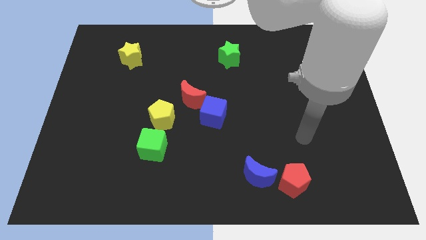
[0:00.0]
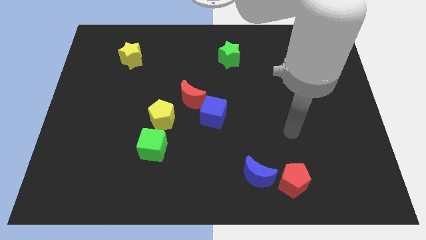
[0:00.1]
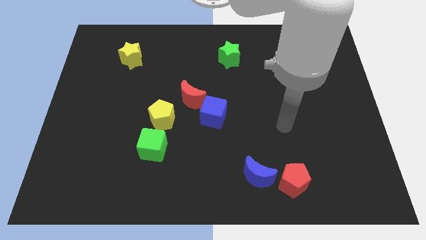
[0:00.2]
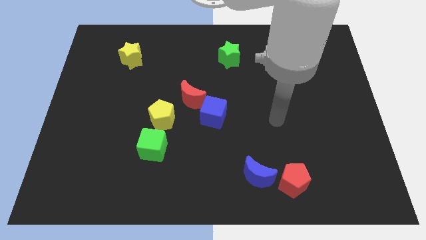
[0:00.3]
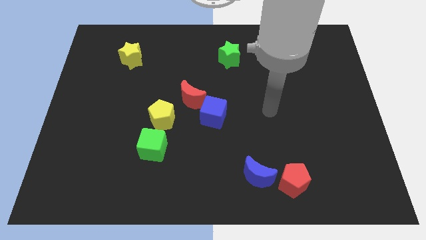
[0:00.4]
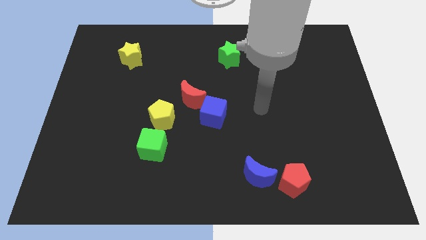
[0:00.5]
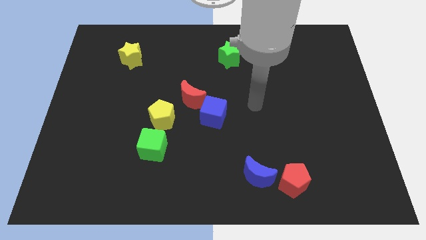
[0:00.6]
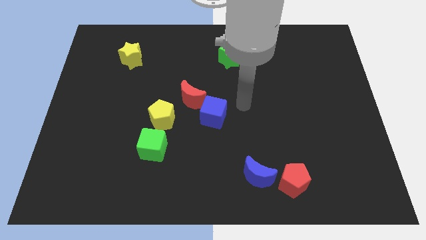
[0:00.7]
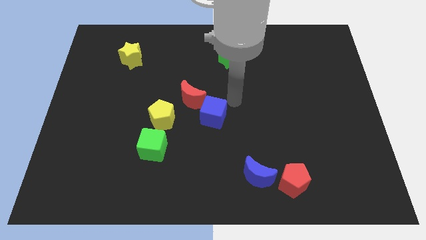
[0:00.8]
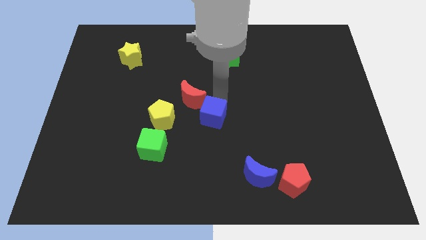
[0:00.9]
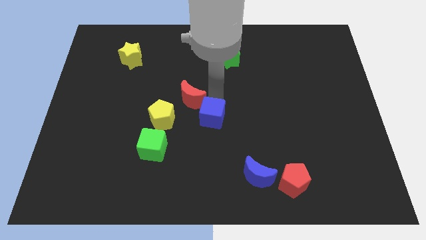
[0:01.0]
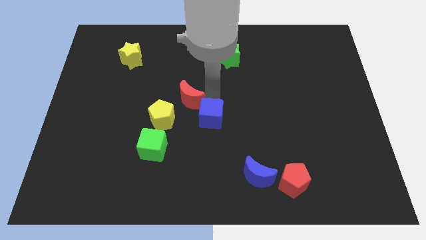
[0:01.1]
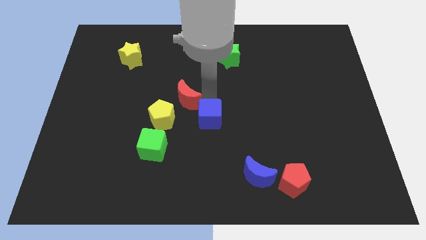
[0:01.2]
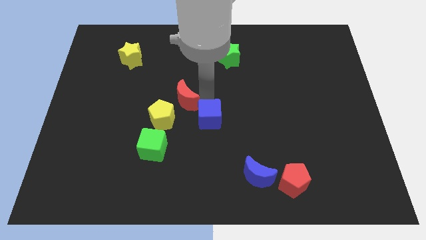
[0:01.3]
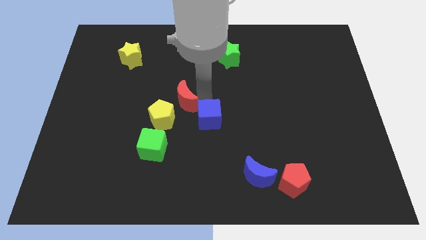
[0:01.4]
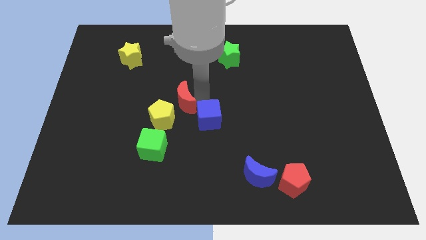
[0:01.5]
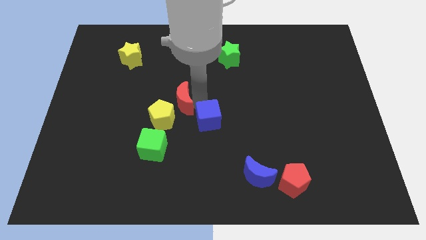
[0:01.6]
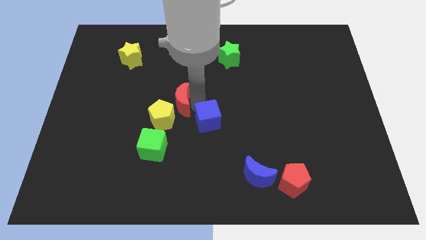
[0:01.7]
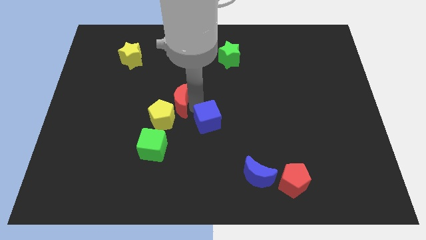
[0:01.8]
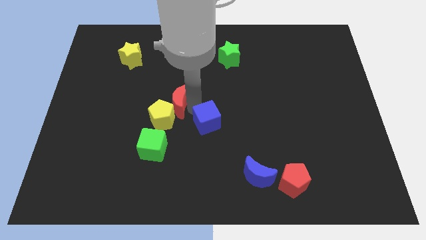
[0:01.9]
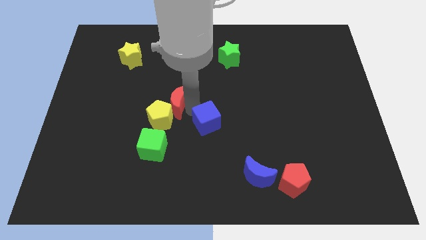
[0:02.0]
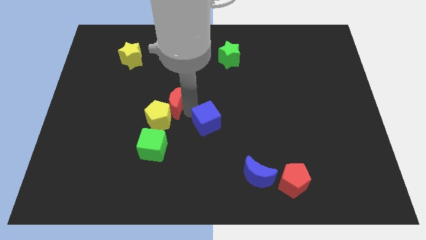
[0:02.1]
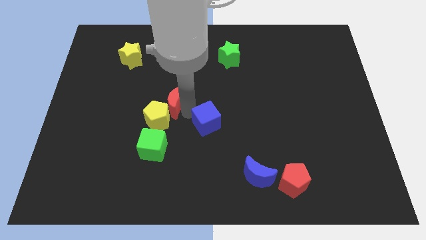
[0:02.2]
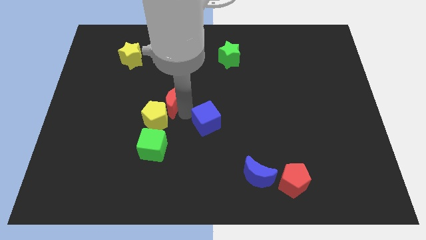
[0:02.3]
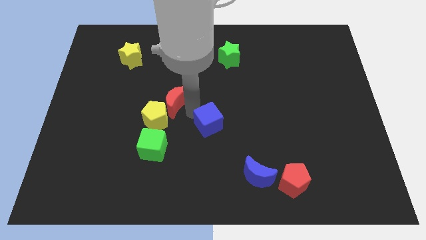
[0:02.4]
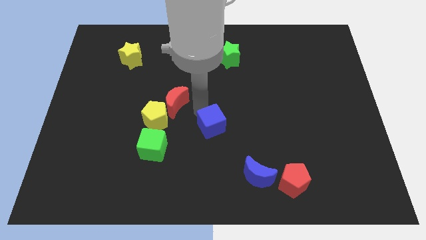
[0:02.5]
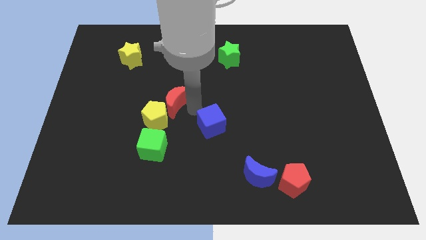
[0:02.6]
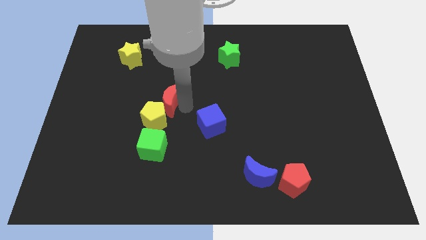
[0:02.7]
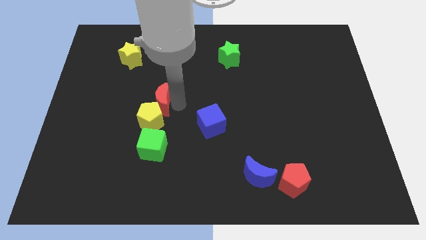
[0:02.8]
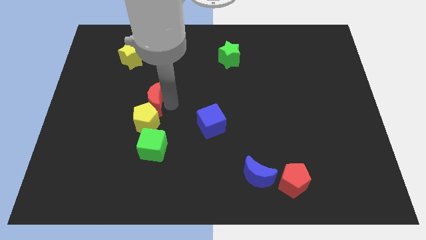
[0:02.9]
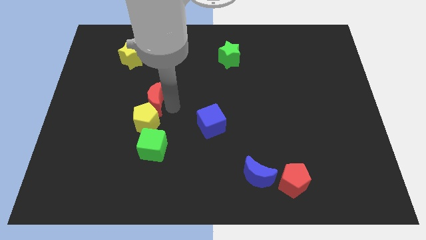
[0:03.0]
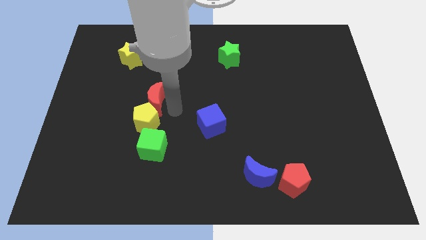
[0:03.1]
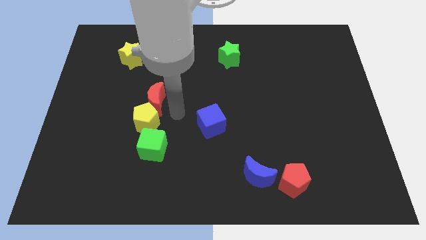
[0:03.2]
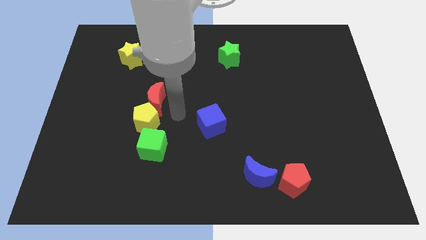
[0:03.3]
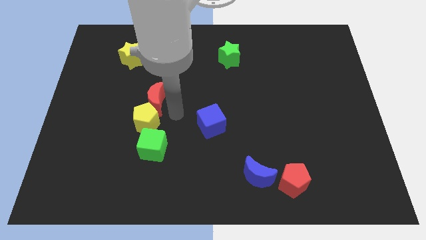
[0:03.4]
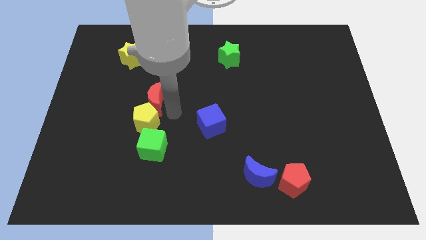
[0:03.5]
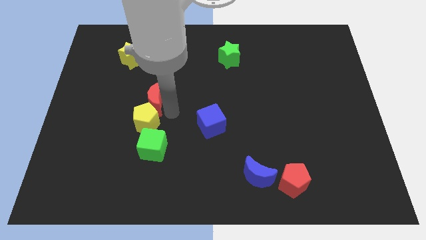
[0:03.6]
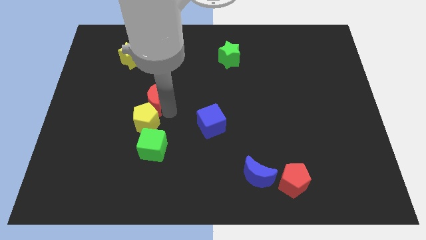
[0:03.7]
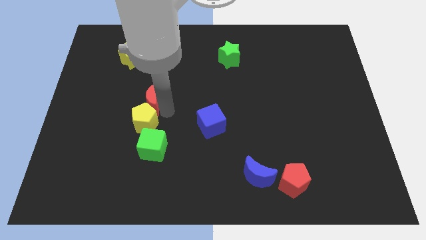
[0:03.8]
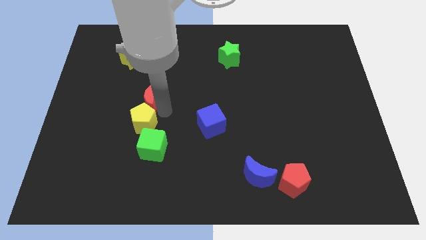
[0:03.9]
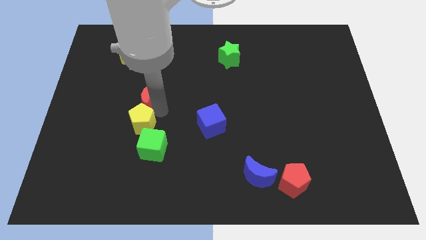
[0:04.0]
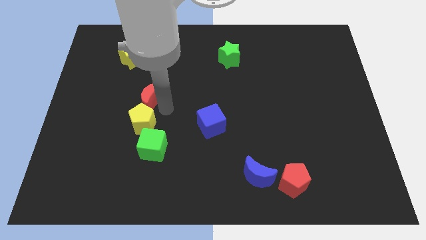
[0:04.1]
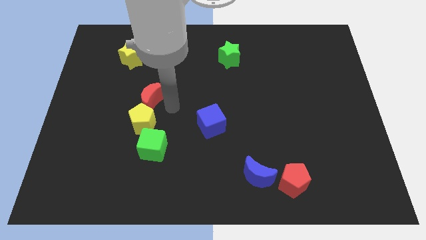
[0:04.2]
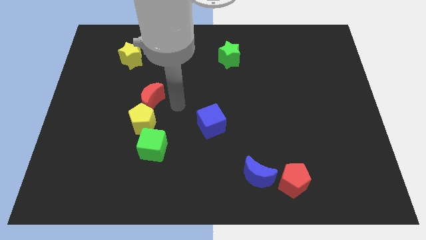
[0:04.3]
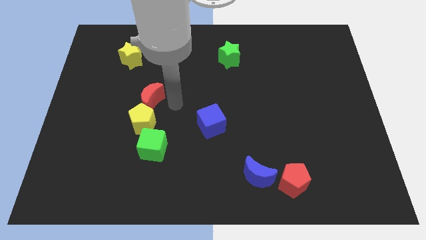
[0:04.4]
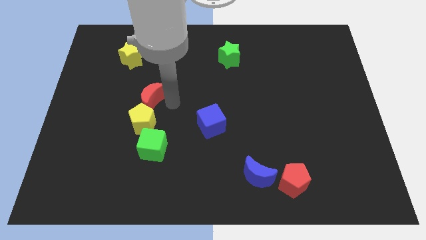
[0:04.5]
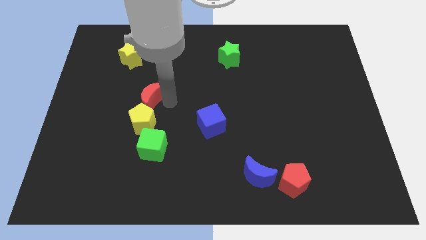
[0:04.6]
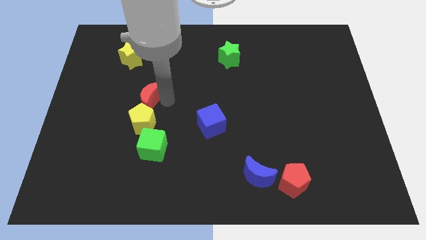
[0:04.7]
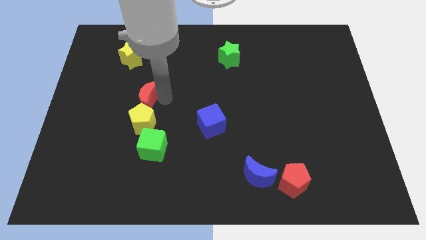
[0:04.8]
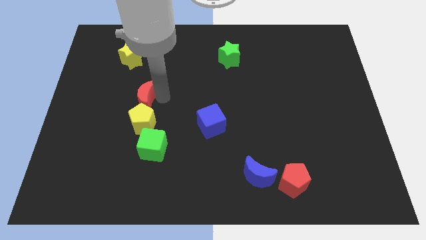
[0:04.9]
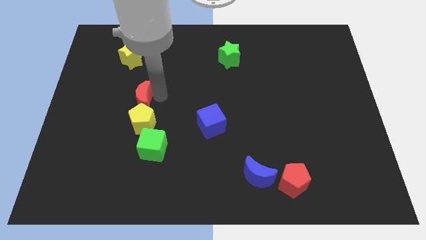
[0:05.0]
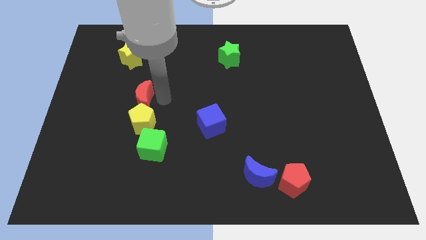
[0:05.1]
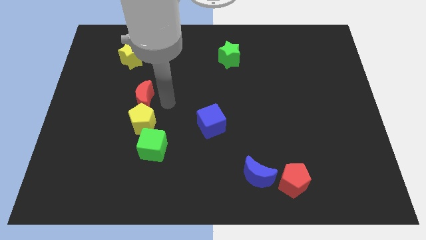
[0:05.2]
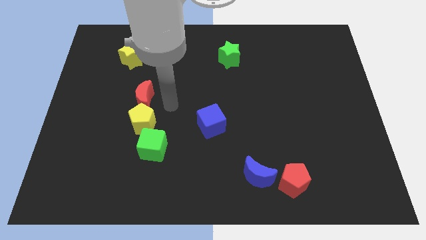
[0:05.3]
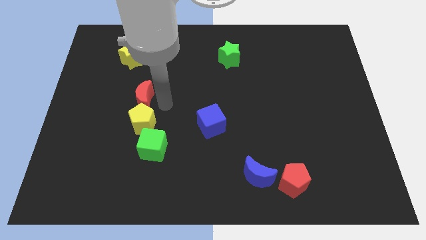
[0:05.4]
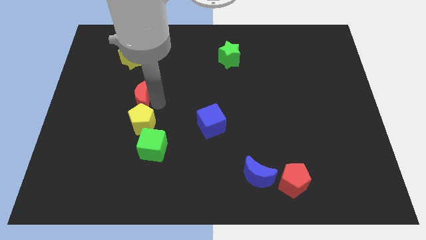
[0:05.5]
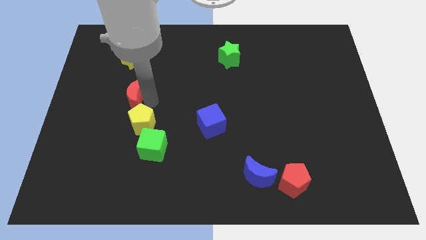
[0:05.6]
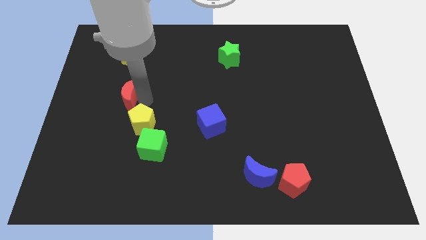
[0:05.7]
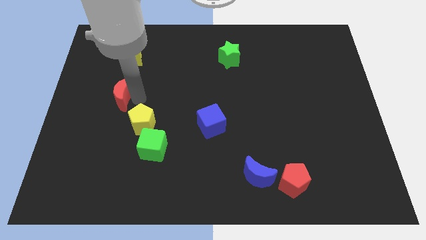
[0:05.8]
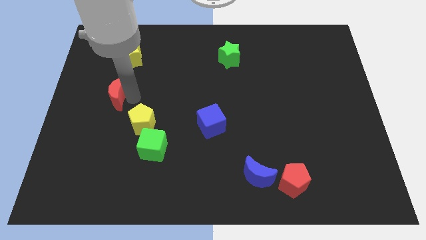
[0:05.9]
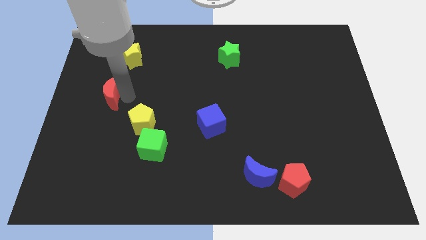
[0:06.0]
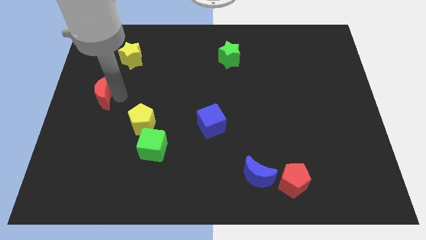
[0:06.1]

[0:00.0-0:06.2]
move the red moon to the left side
